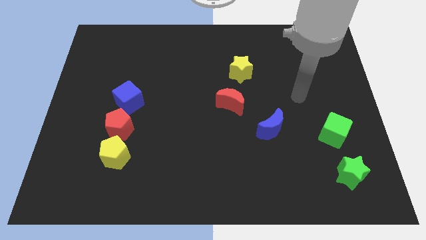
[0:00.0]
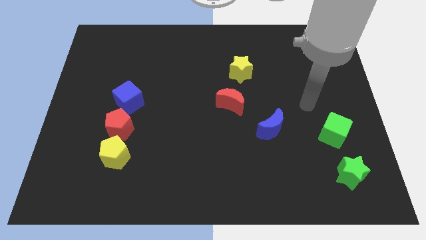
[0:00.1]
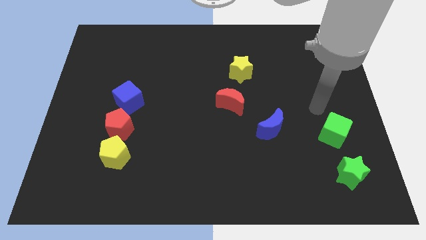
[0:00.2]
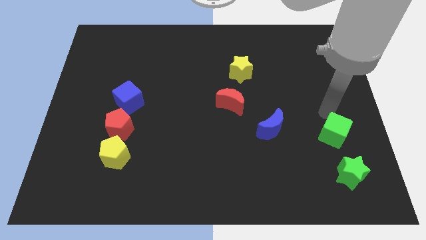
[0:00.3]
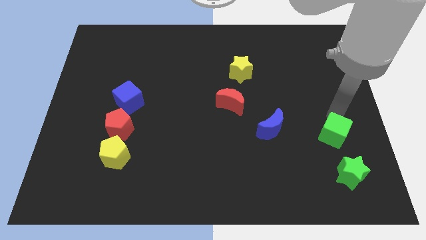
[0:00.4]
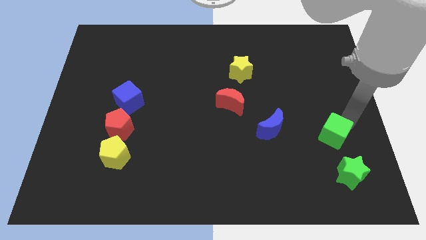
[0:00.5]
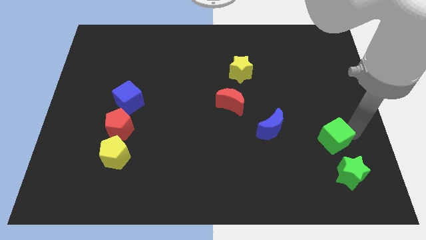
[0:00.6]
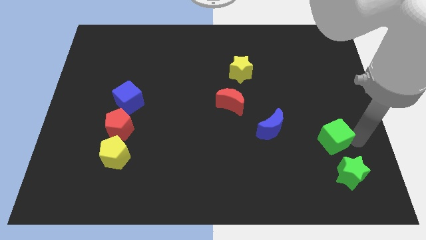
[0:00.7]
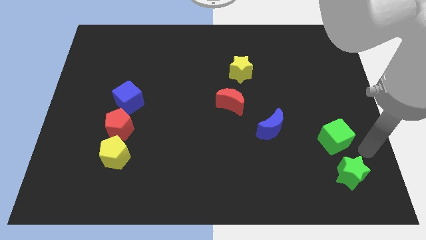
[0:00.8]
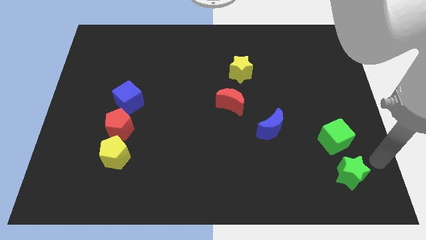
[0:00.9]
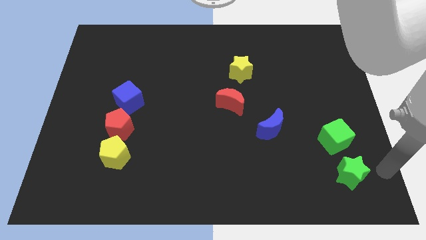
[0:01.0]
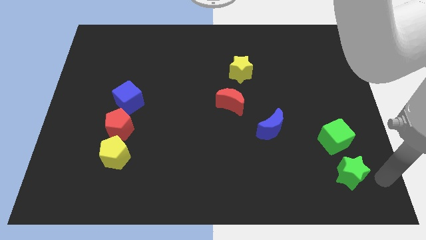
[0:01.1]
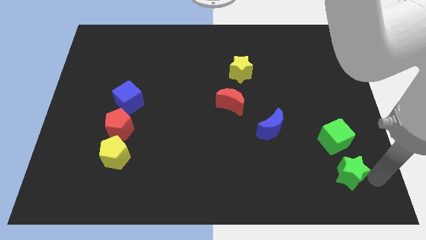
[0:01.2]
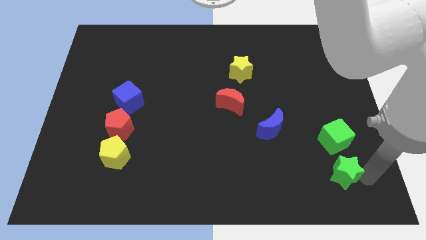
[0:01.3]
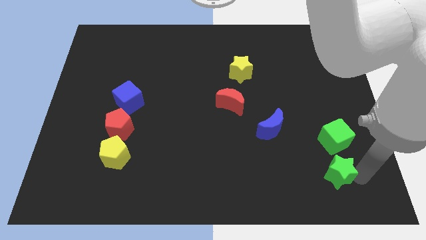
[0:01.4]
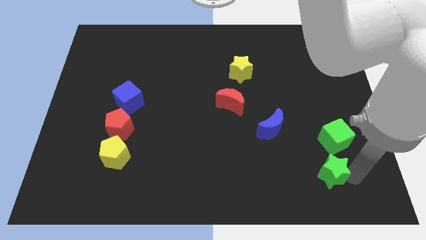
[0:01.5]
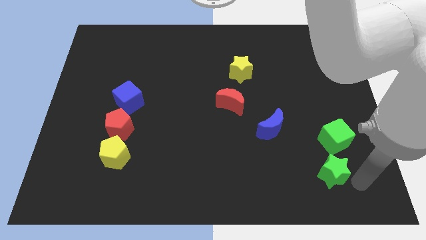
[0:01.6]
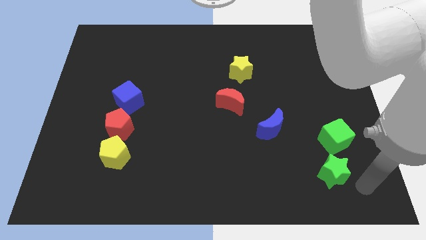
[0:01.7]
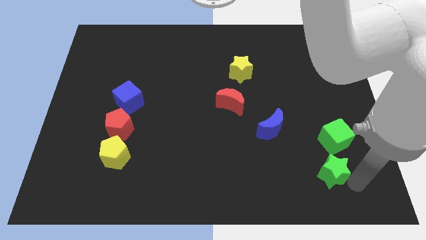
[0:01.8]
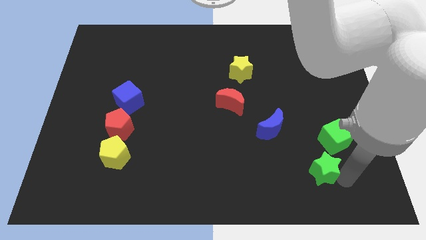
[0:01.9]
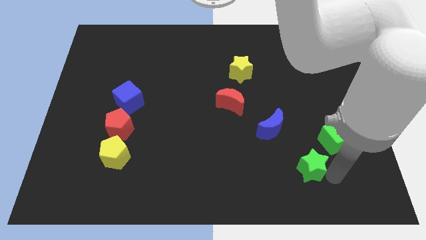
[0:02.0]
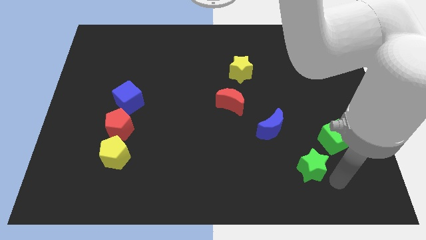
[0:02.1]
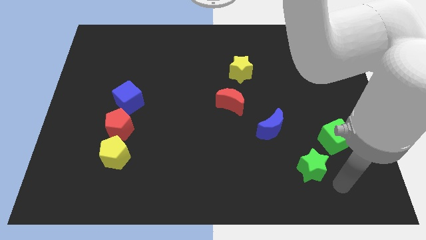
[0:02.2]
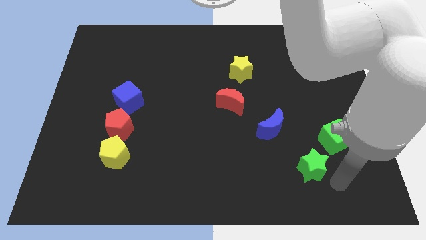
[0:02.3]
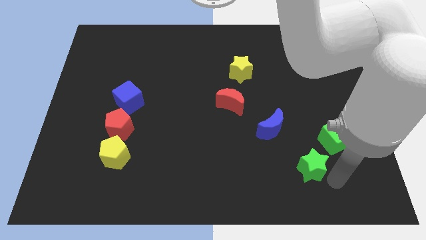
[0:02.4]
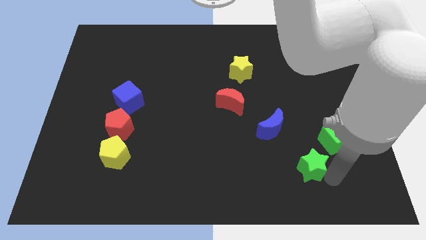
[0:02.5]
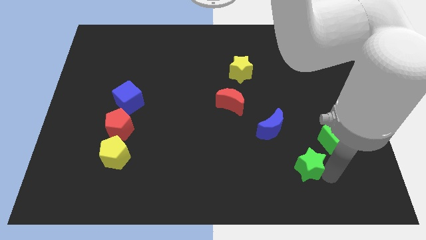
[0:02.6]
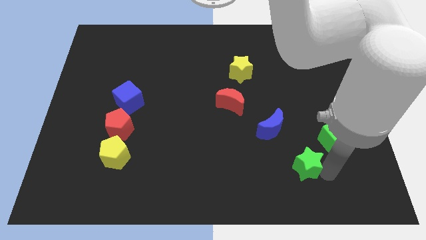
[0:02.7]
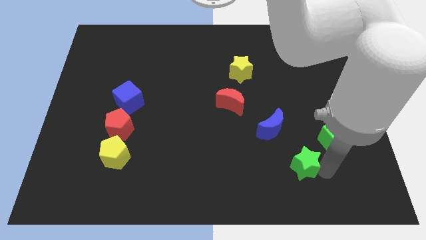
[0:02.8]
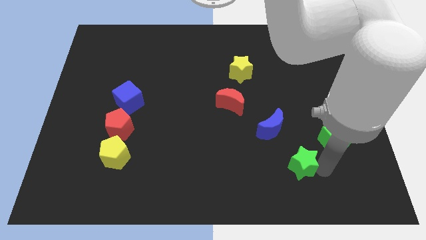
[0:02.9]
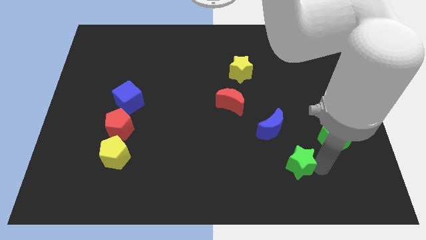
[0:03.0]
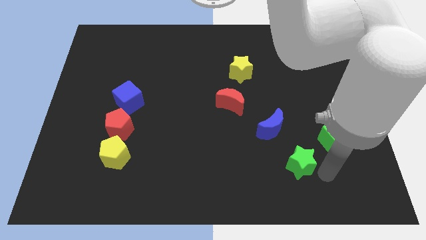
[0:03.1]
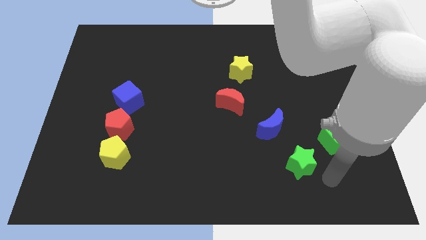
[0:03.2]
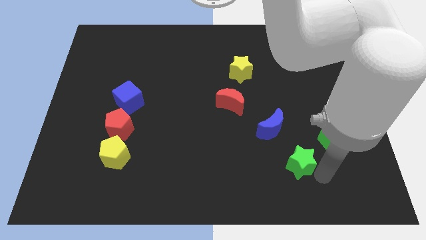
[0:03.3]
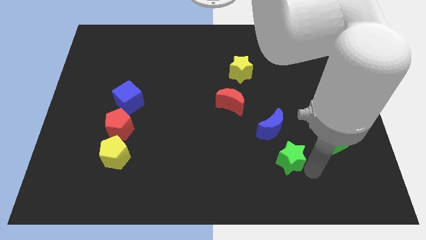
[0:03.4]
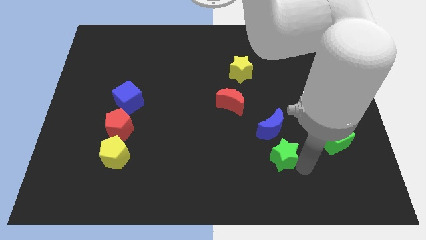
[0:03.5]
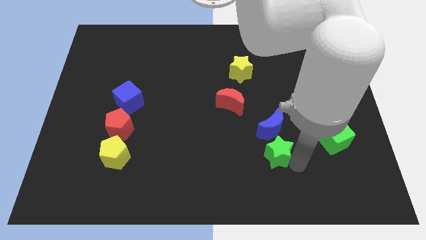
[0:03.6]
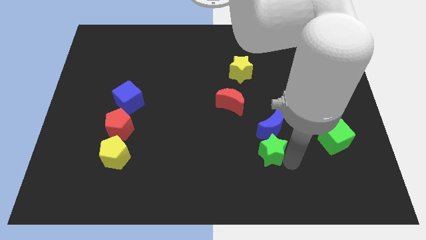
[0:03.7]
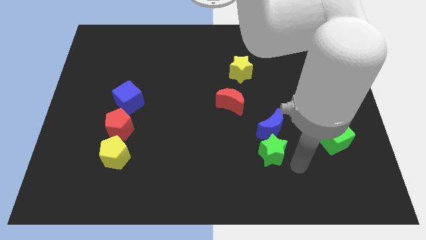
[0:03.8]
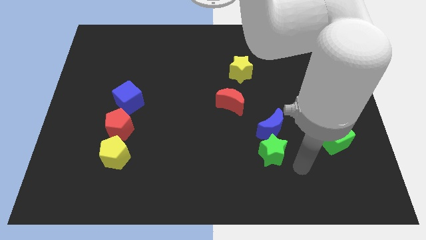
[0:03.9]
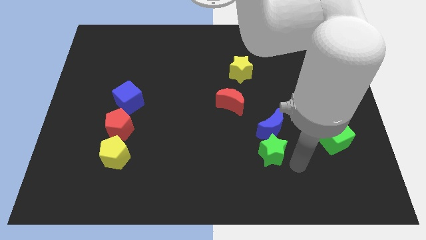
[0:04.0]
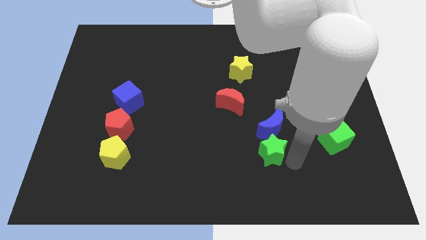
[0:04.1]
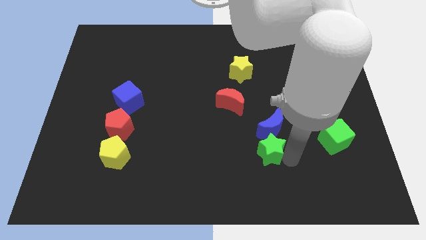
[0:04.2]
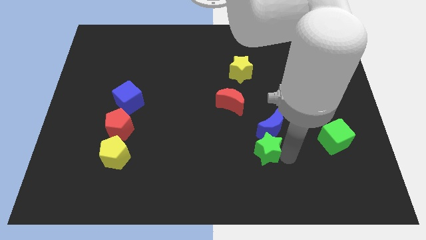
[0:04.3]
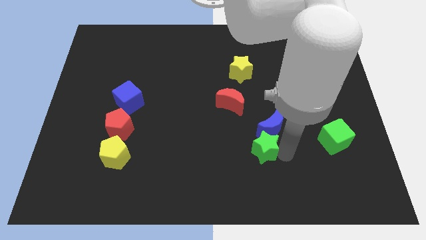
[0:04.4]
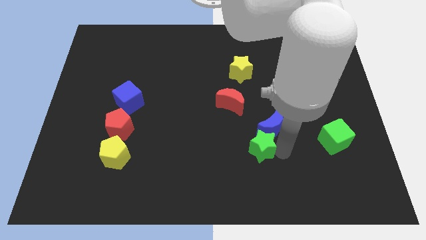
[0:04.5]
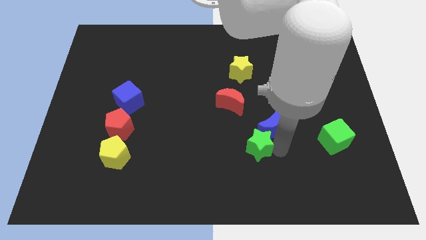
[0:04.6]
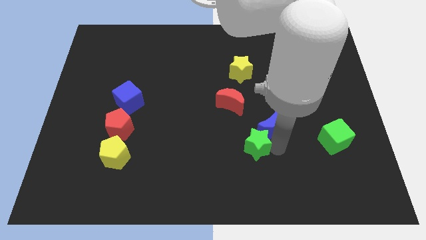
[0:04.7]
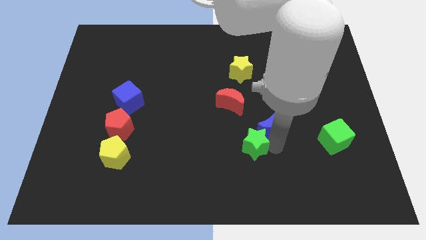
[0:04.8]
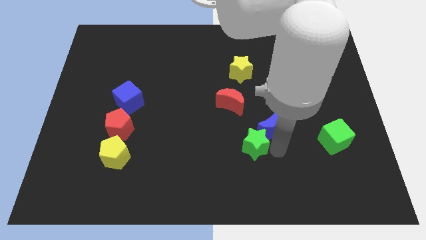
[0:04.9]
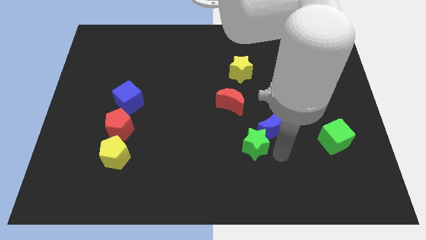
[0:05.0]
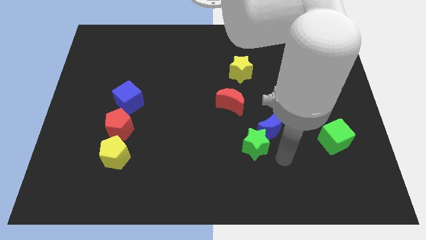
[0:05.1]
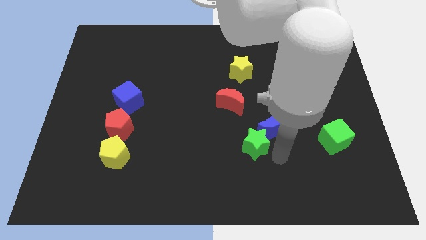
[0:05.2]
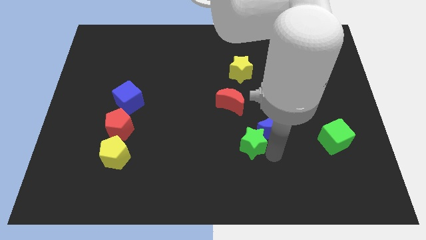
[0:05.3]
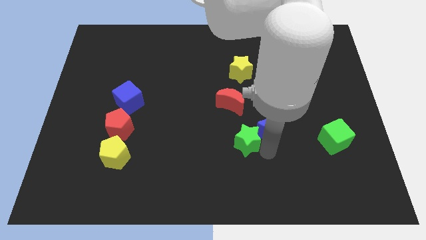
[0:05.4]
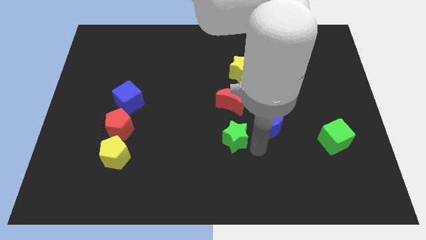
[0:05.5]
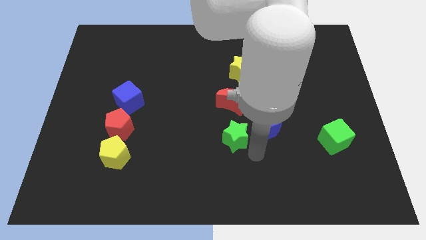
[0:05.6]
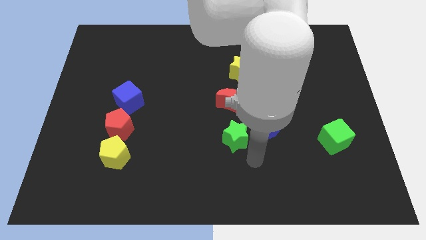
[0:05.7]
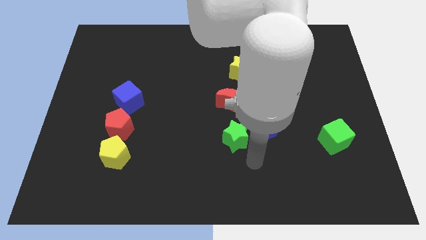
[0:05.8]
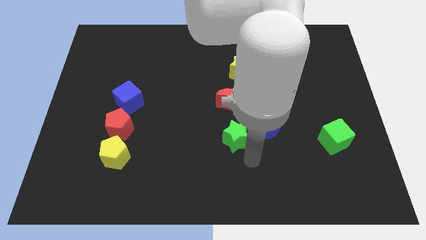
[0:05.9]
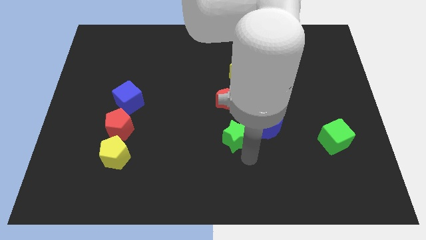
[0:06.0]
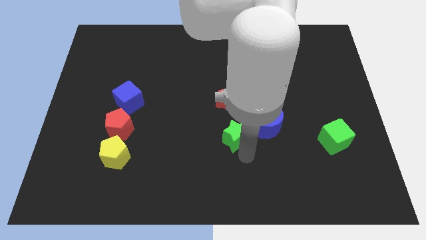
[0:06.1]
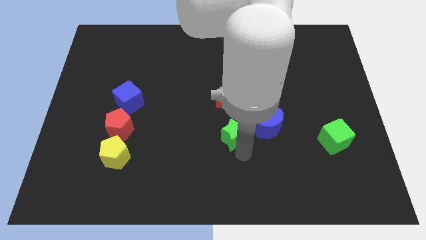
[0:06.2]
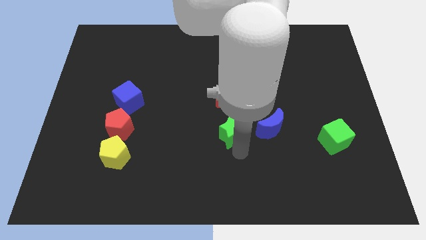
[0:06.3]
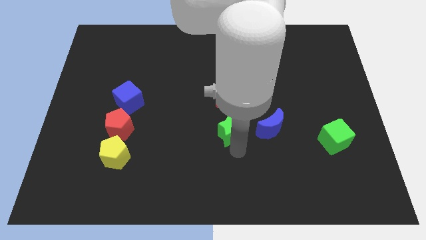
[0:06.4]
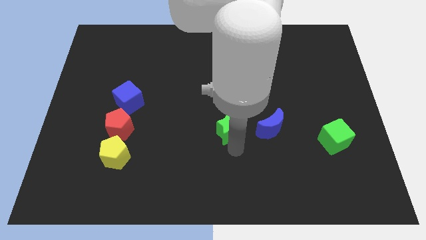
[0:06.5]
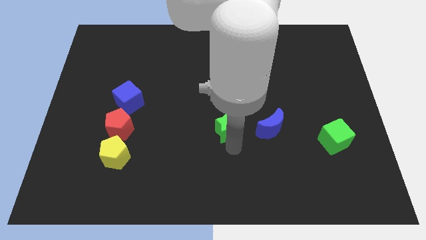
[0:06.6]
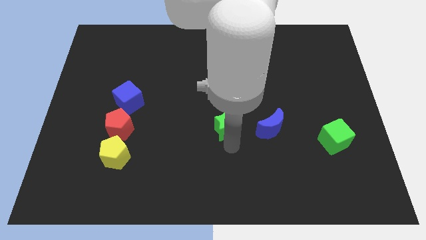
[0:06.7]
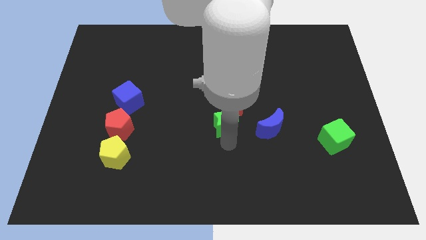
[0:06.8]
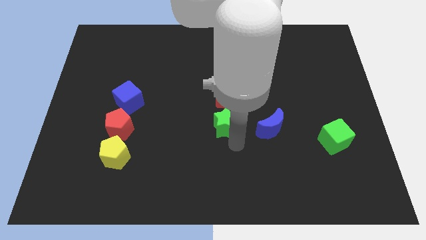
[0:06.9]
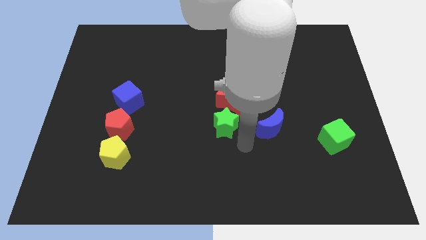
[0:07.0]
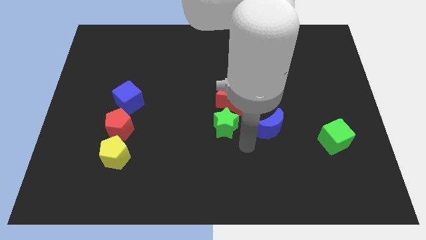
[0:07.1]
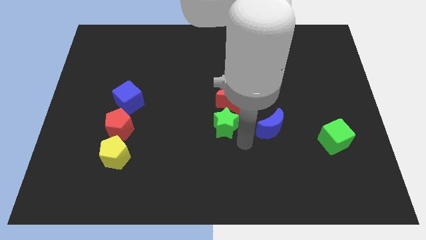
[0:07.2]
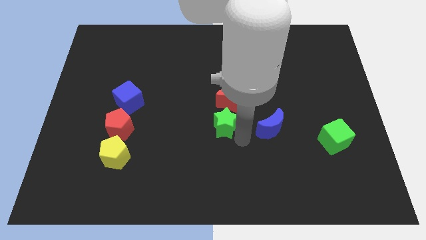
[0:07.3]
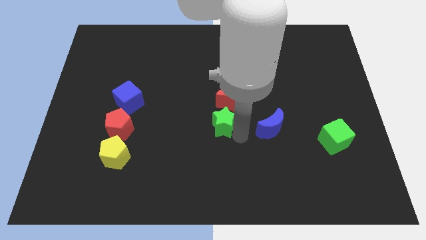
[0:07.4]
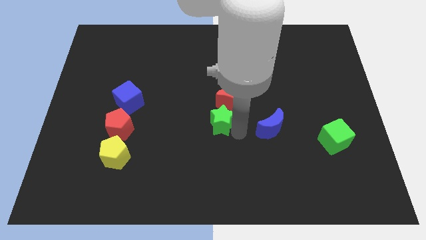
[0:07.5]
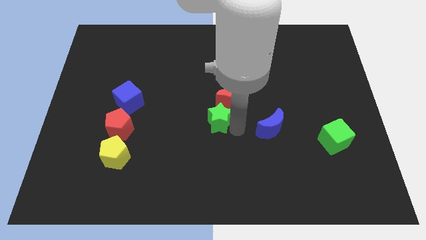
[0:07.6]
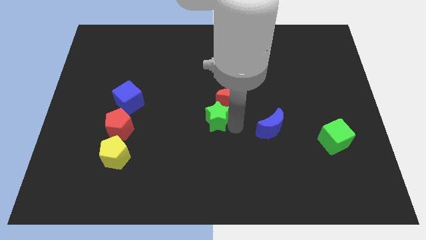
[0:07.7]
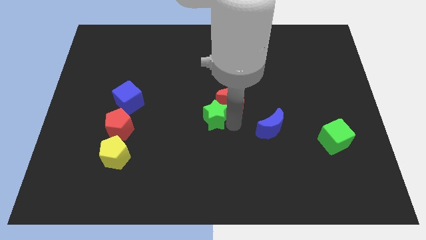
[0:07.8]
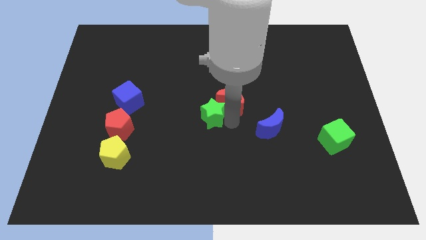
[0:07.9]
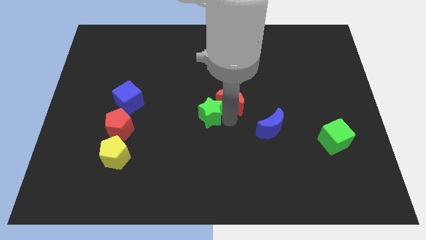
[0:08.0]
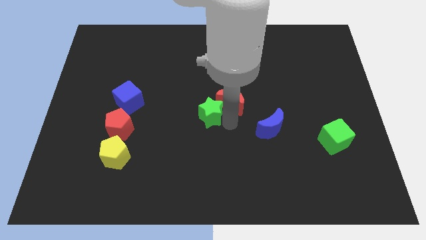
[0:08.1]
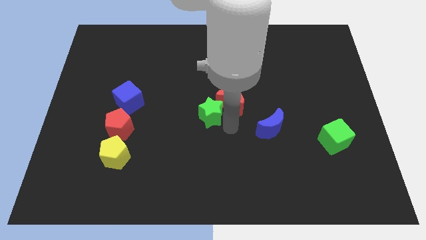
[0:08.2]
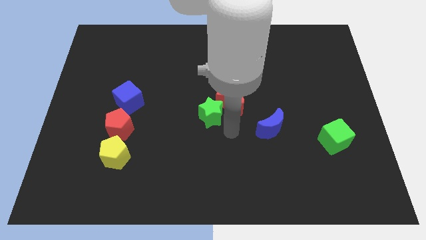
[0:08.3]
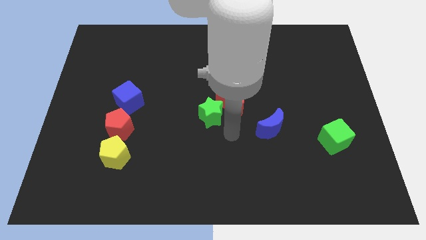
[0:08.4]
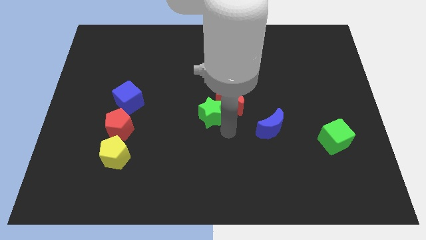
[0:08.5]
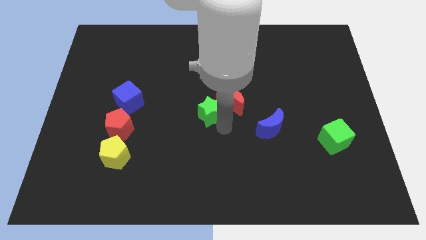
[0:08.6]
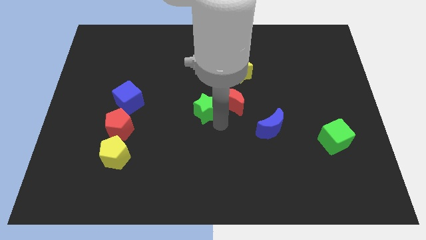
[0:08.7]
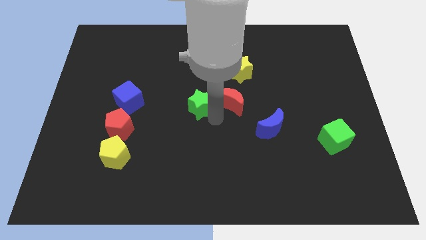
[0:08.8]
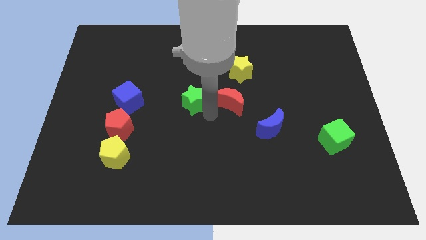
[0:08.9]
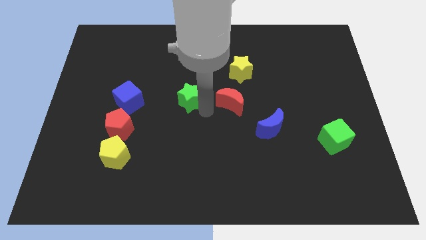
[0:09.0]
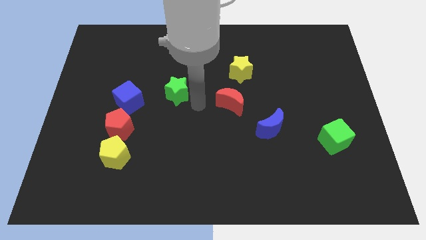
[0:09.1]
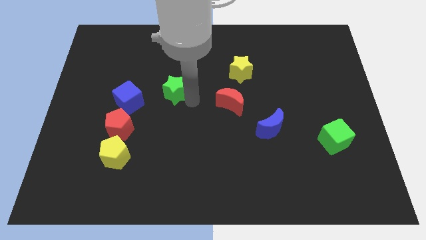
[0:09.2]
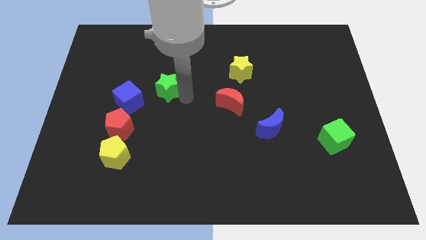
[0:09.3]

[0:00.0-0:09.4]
slide the green star to the top right of the blue cube
